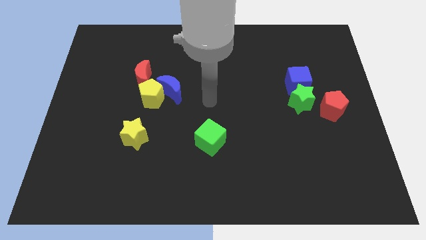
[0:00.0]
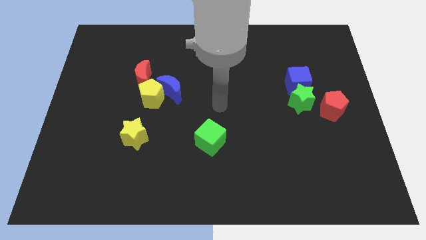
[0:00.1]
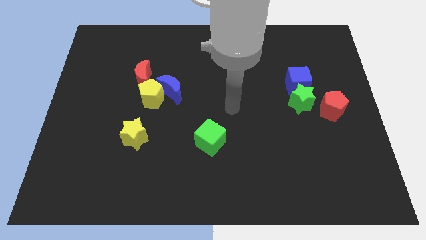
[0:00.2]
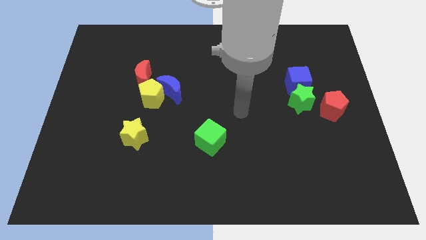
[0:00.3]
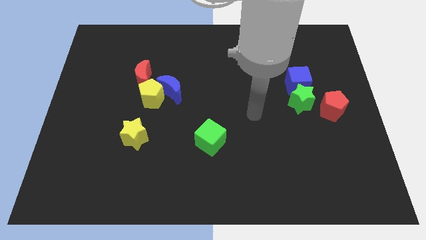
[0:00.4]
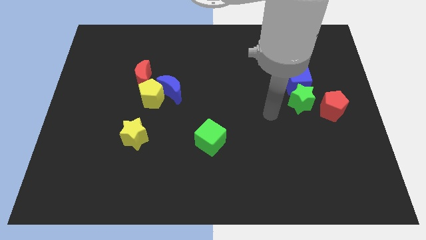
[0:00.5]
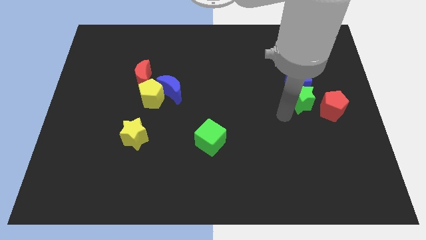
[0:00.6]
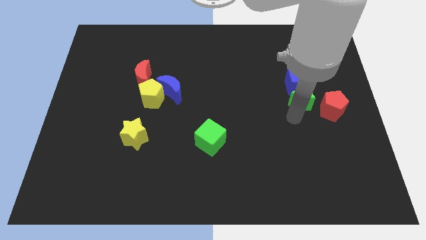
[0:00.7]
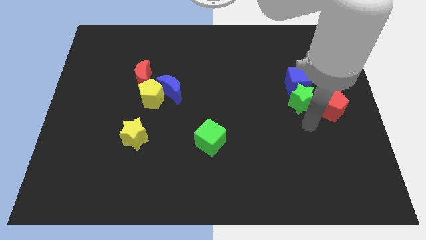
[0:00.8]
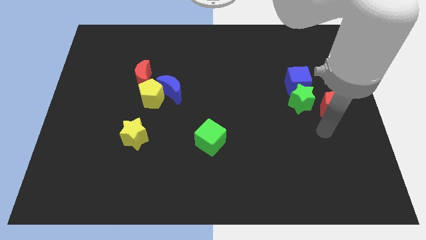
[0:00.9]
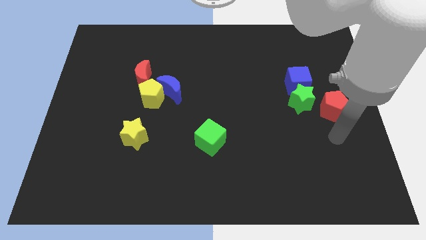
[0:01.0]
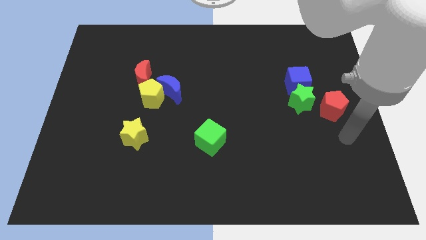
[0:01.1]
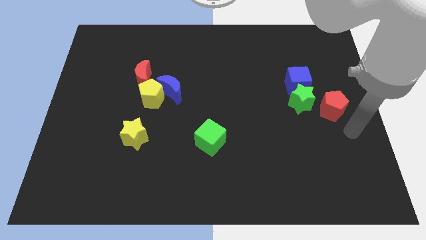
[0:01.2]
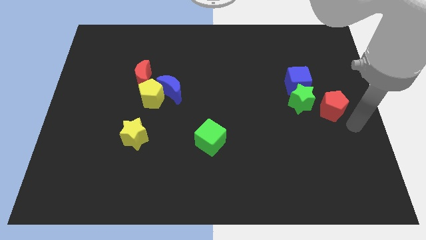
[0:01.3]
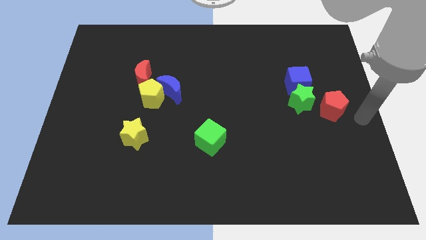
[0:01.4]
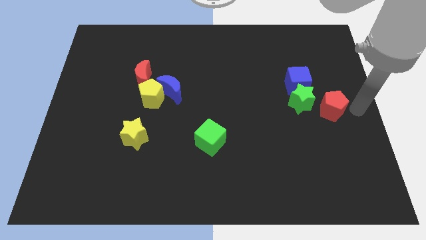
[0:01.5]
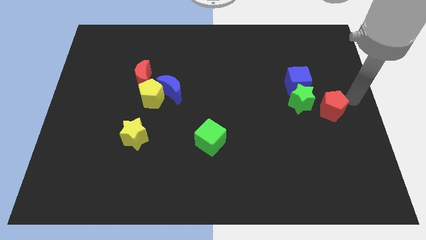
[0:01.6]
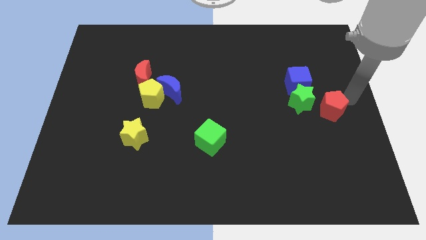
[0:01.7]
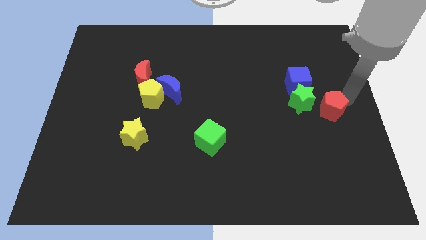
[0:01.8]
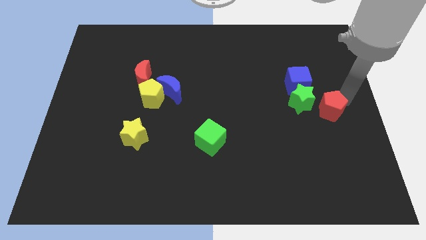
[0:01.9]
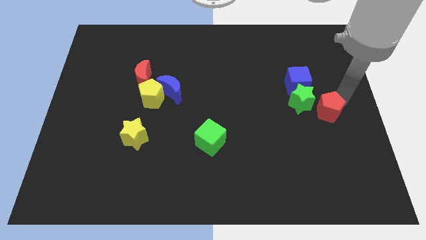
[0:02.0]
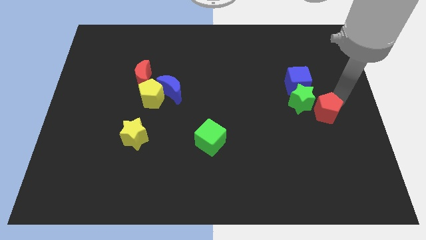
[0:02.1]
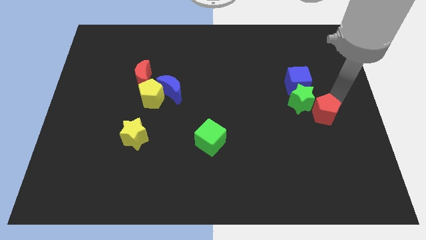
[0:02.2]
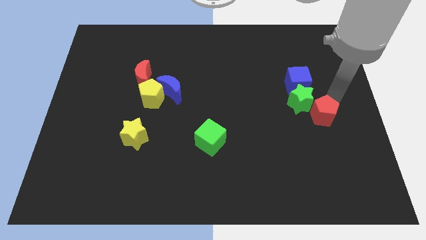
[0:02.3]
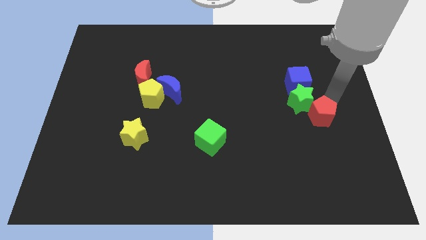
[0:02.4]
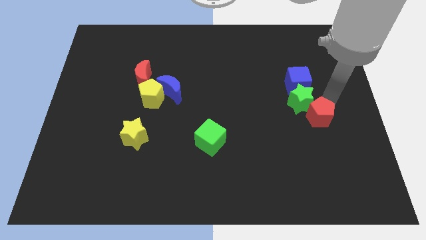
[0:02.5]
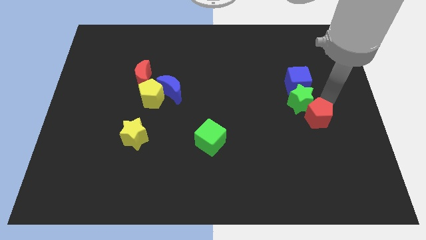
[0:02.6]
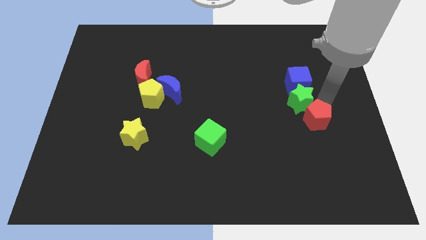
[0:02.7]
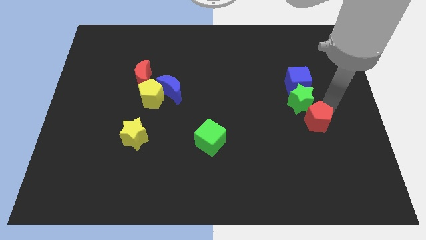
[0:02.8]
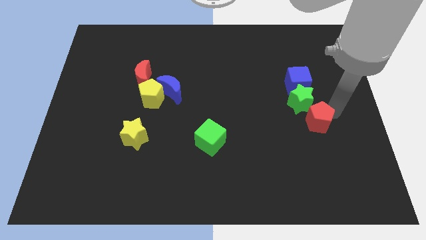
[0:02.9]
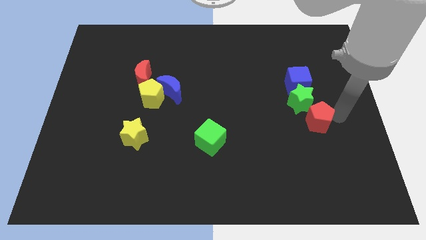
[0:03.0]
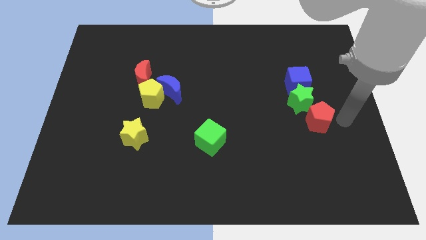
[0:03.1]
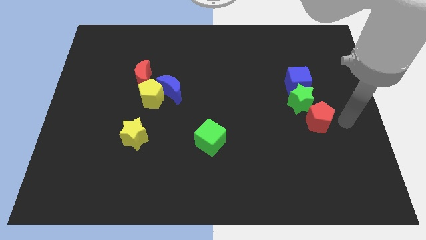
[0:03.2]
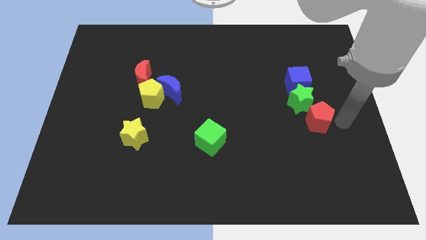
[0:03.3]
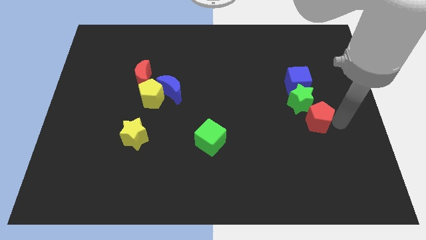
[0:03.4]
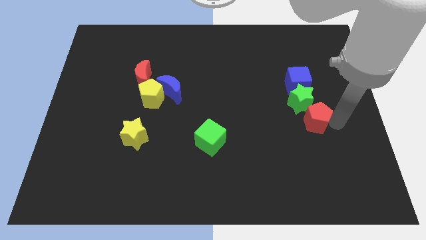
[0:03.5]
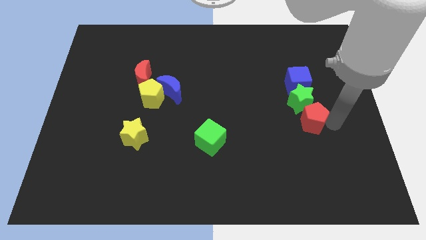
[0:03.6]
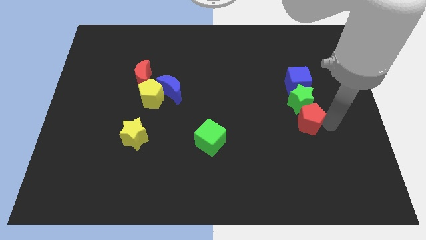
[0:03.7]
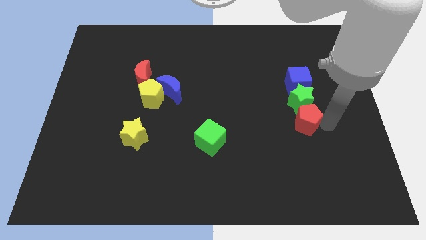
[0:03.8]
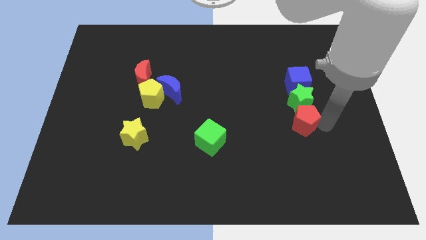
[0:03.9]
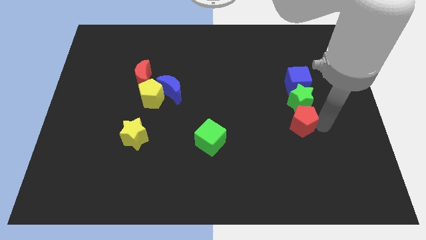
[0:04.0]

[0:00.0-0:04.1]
slide the red pentagon a little left

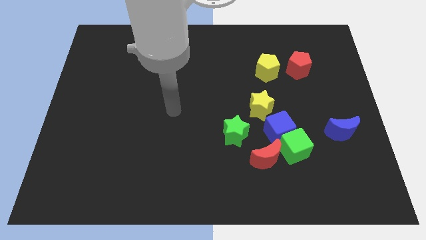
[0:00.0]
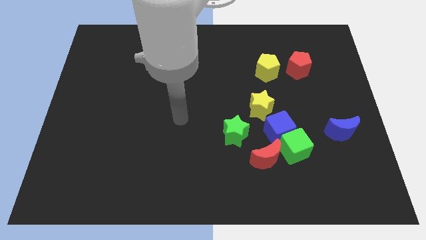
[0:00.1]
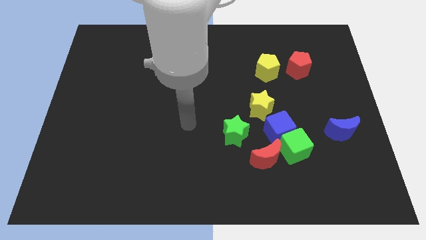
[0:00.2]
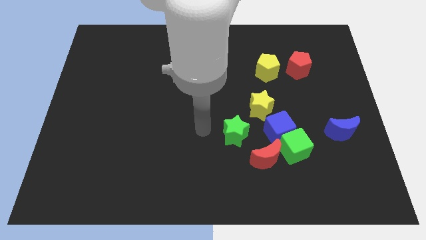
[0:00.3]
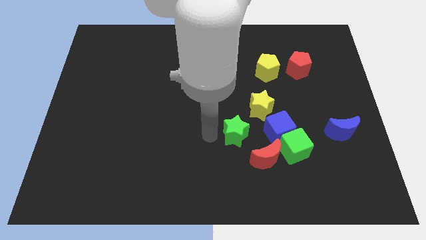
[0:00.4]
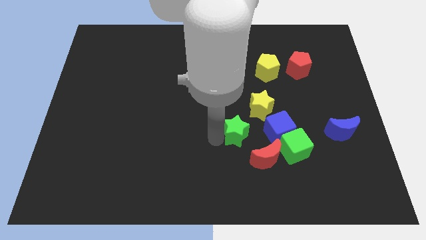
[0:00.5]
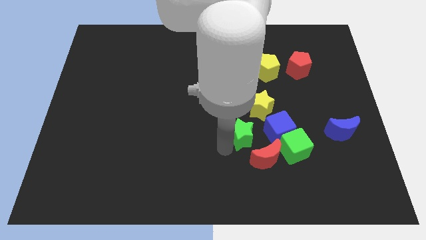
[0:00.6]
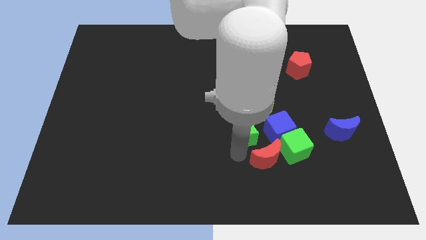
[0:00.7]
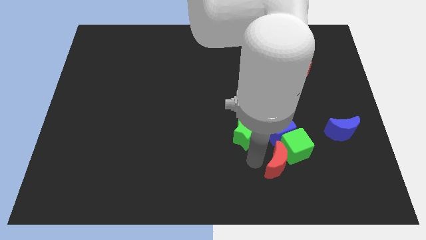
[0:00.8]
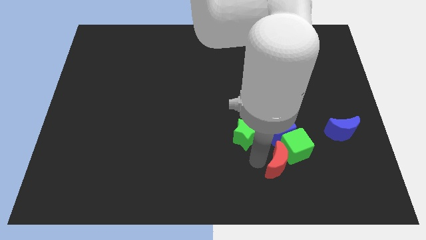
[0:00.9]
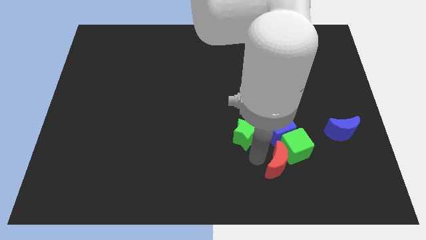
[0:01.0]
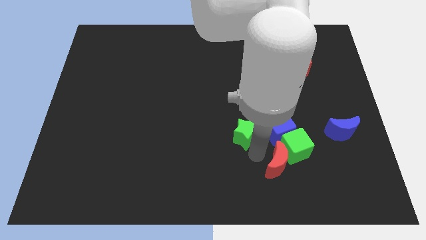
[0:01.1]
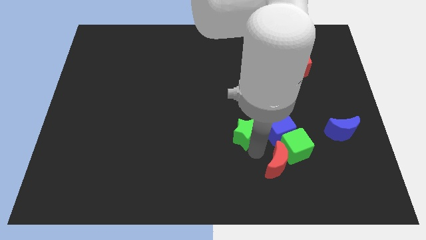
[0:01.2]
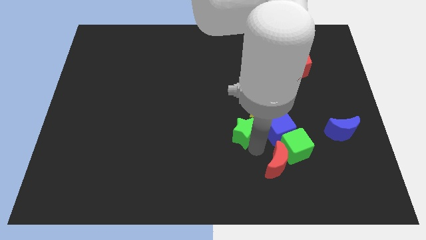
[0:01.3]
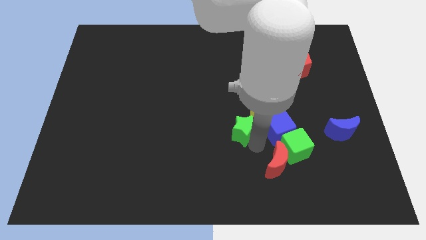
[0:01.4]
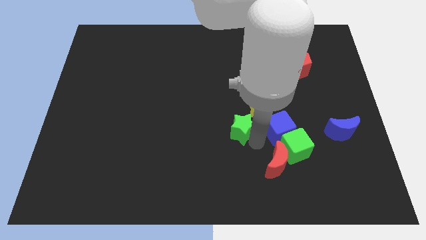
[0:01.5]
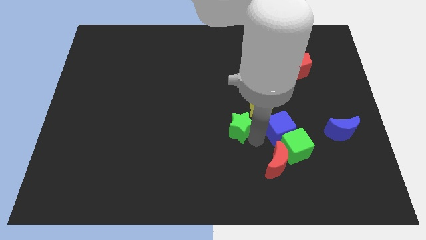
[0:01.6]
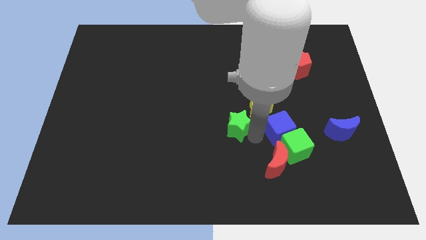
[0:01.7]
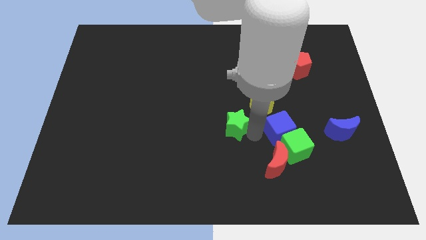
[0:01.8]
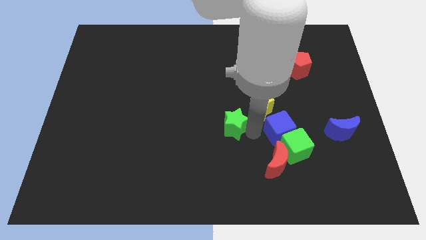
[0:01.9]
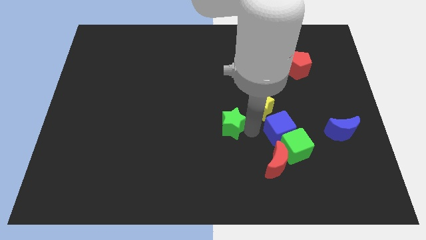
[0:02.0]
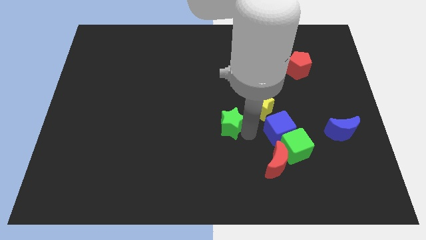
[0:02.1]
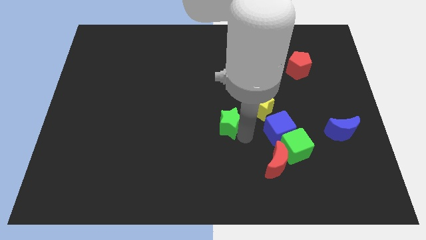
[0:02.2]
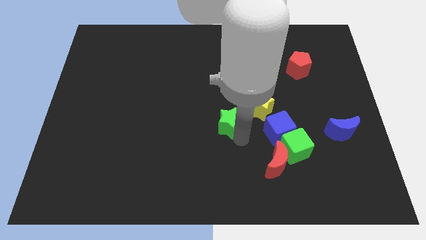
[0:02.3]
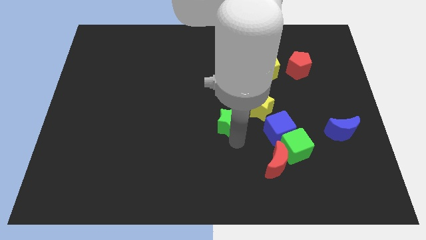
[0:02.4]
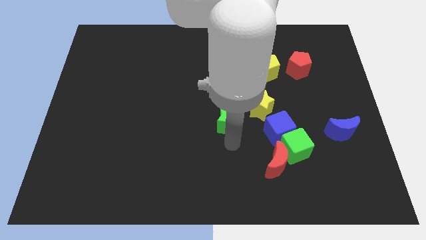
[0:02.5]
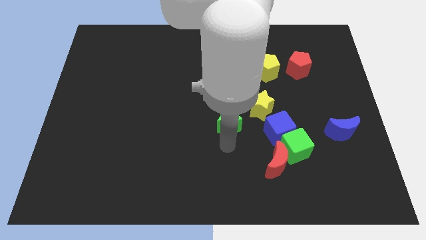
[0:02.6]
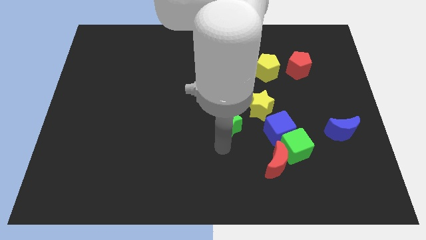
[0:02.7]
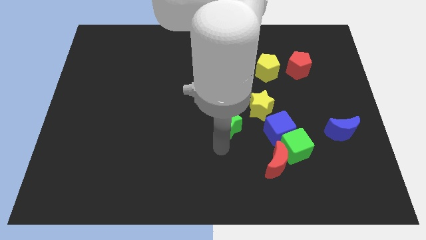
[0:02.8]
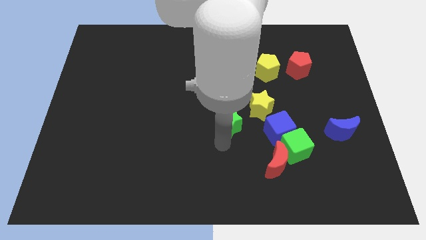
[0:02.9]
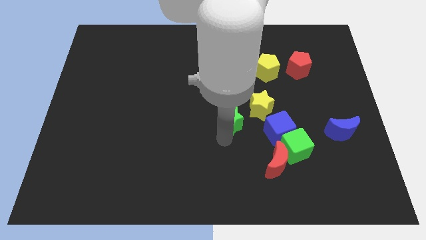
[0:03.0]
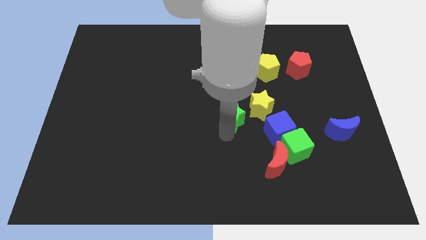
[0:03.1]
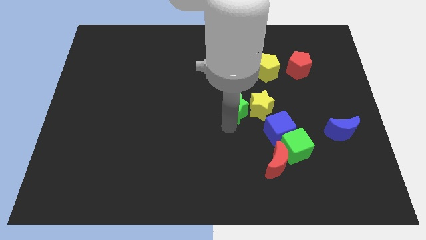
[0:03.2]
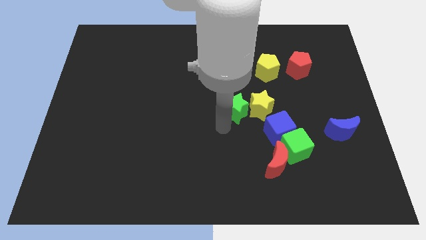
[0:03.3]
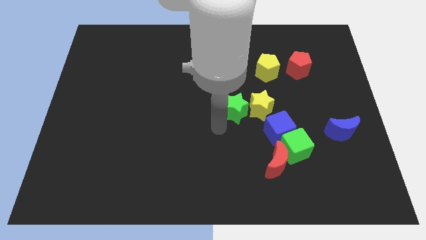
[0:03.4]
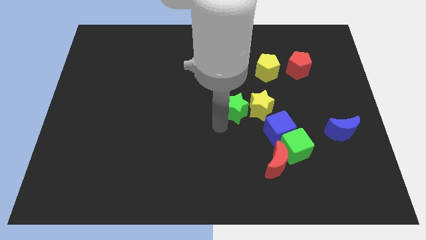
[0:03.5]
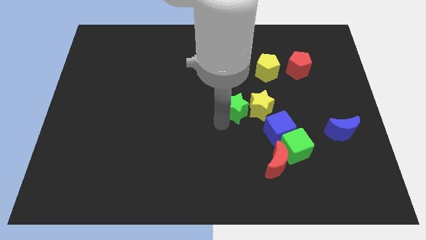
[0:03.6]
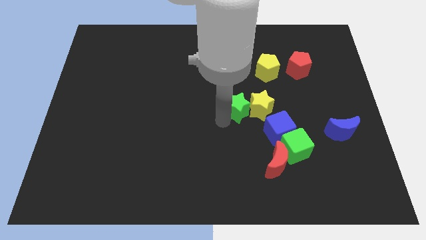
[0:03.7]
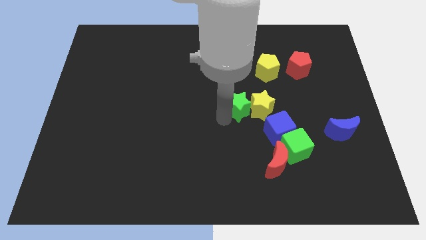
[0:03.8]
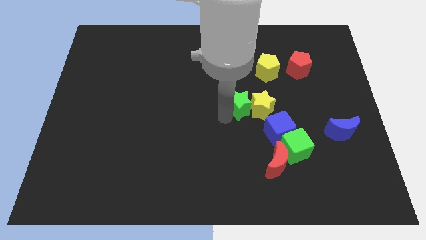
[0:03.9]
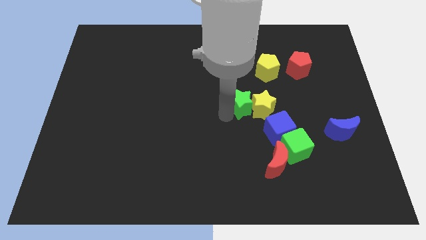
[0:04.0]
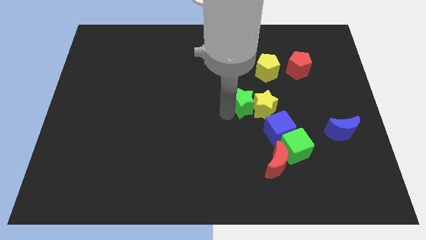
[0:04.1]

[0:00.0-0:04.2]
slide the green star up and to the right a little bit

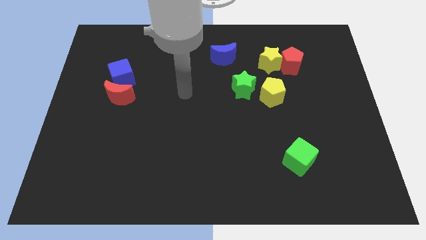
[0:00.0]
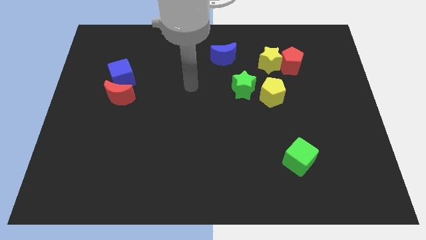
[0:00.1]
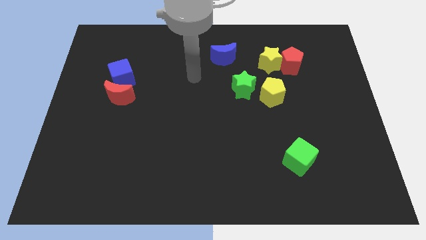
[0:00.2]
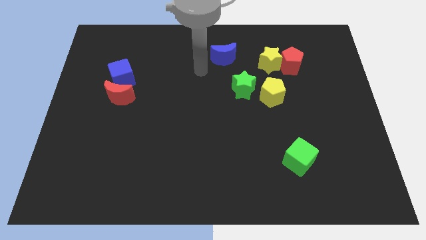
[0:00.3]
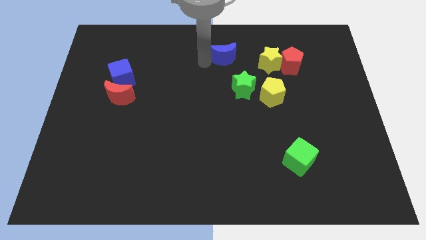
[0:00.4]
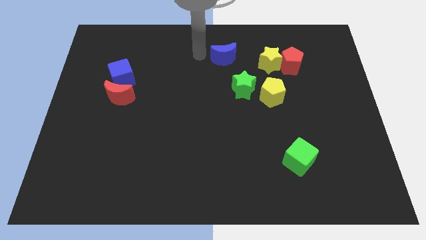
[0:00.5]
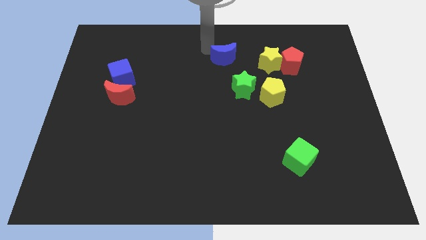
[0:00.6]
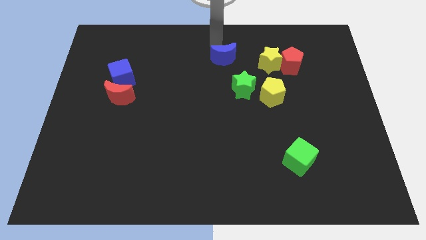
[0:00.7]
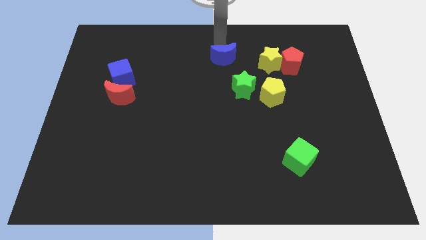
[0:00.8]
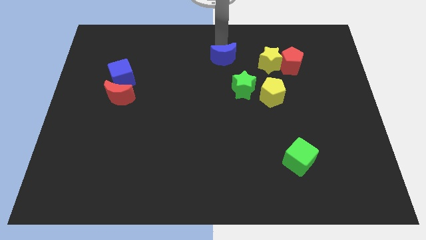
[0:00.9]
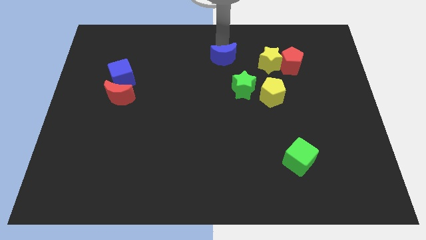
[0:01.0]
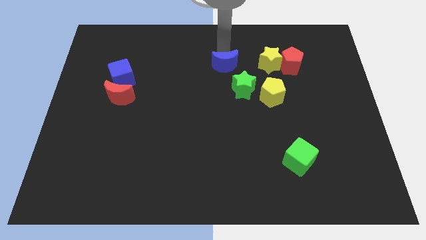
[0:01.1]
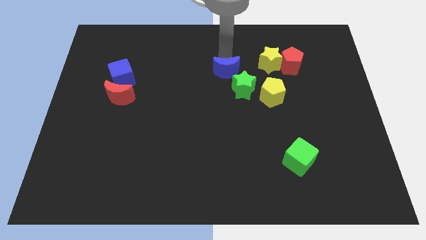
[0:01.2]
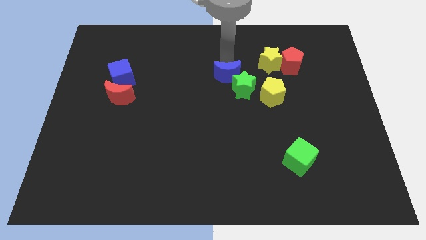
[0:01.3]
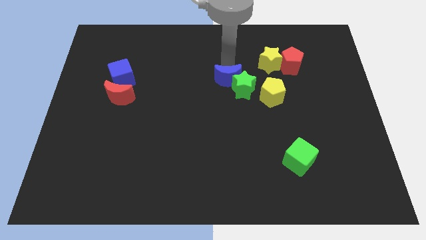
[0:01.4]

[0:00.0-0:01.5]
push the blue moon a little bit downwards
